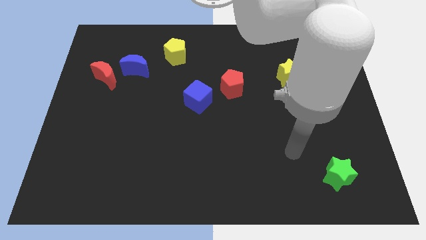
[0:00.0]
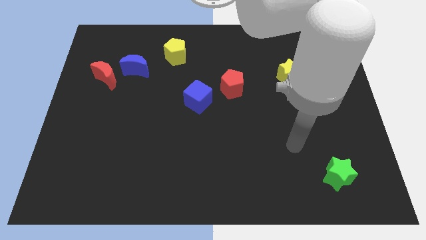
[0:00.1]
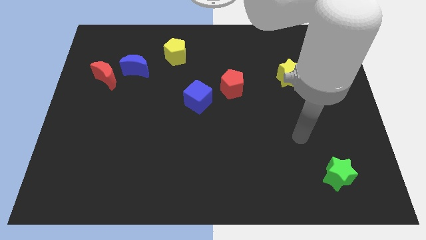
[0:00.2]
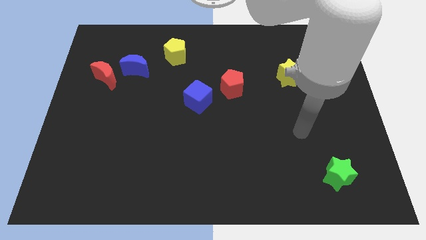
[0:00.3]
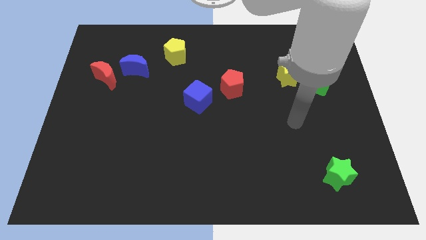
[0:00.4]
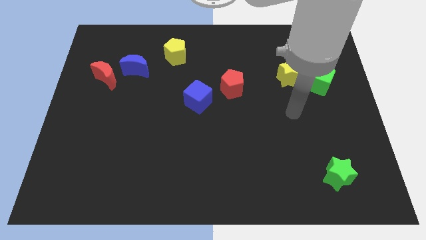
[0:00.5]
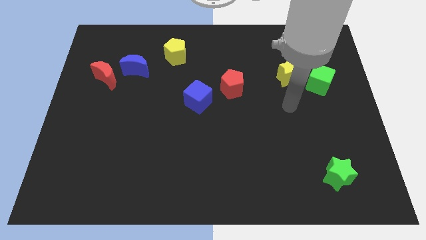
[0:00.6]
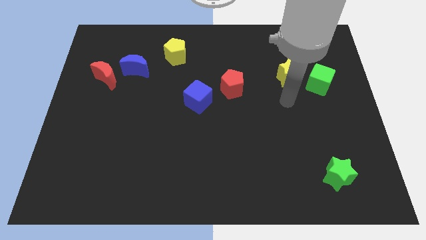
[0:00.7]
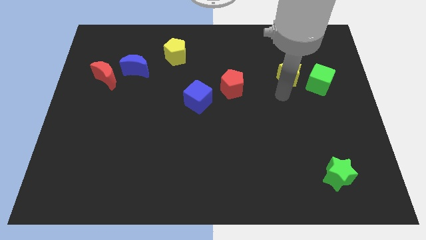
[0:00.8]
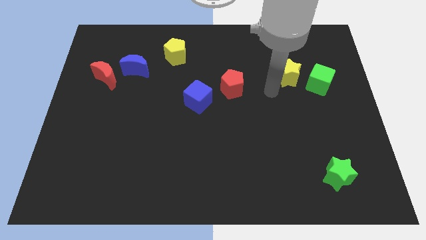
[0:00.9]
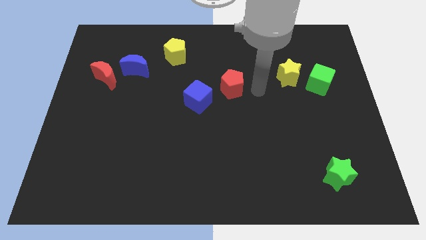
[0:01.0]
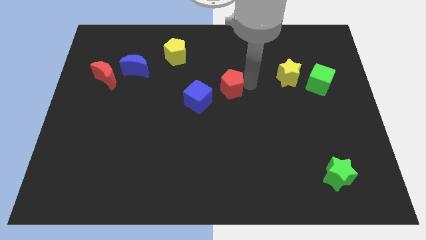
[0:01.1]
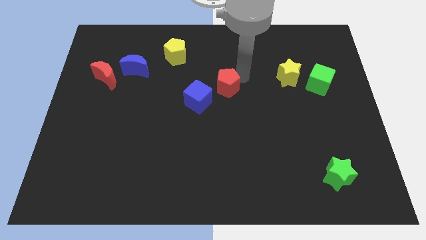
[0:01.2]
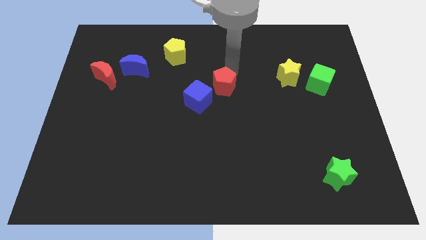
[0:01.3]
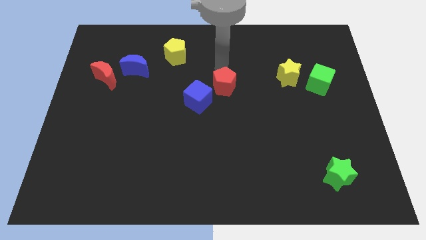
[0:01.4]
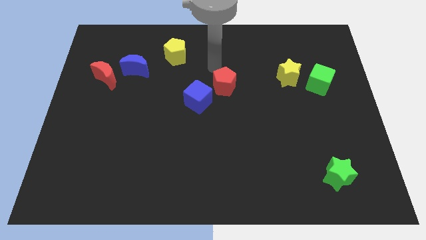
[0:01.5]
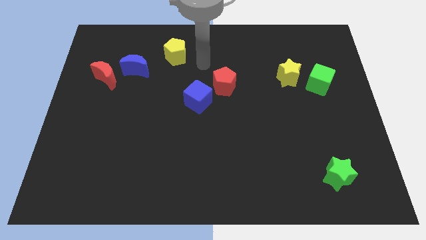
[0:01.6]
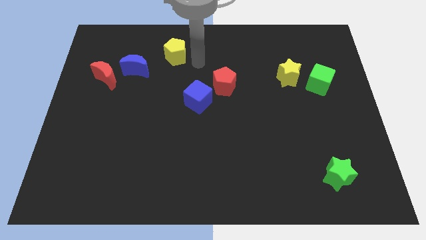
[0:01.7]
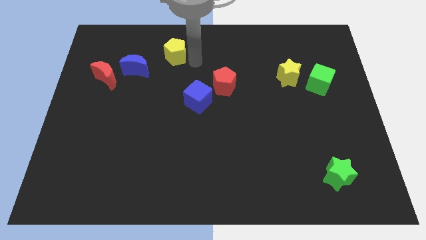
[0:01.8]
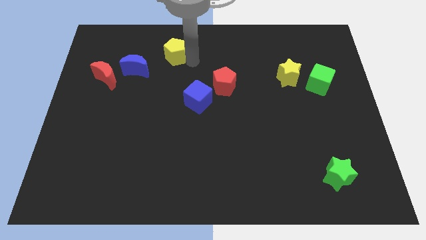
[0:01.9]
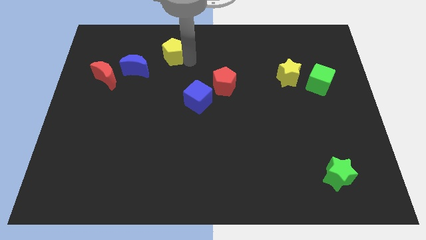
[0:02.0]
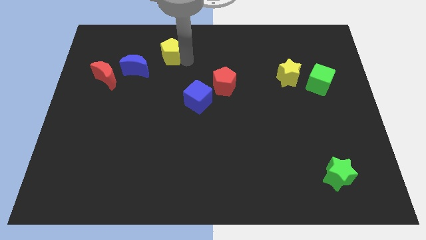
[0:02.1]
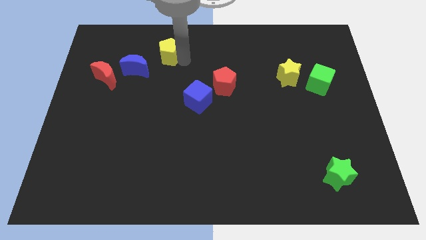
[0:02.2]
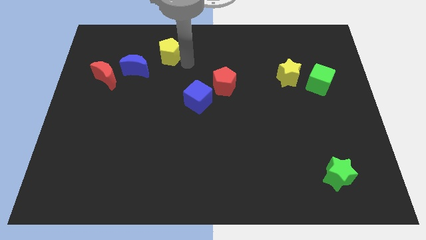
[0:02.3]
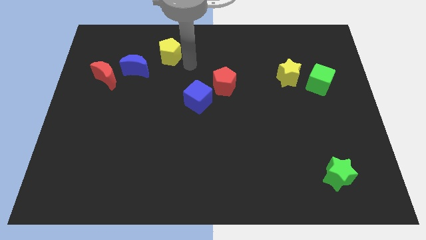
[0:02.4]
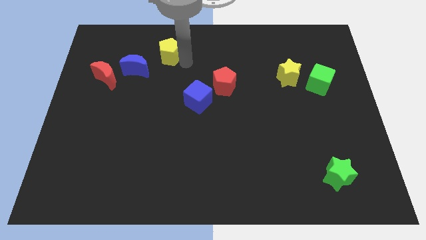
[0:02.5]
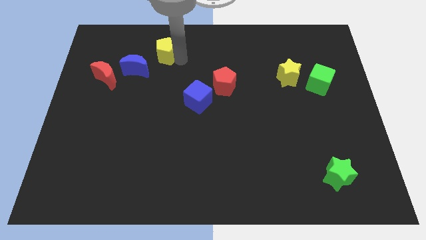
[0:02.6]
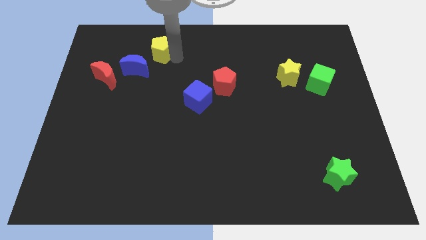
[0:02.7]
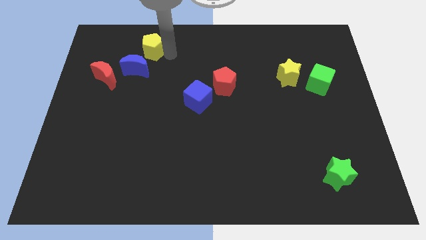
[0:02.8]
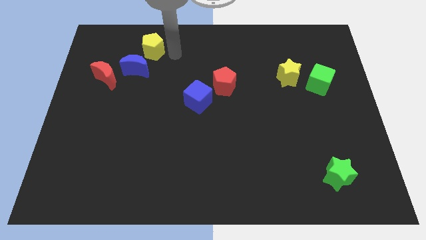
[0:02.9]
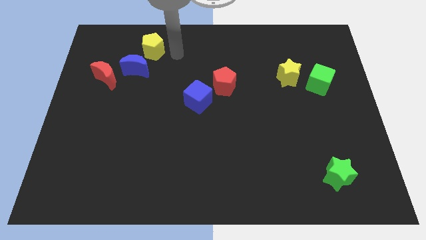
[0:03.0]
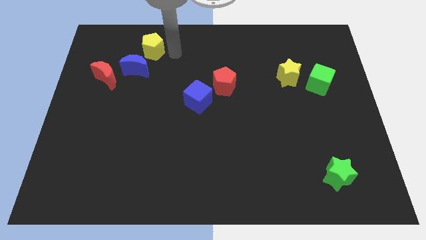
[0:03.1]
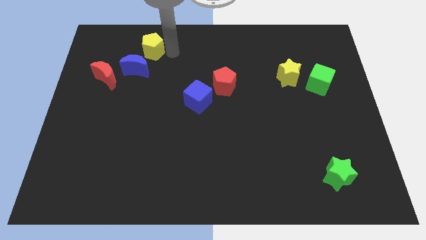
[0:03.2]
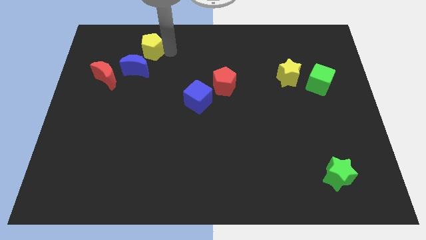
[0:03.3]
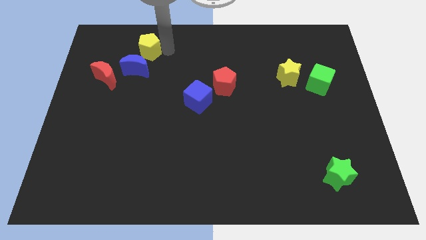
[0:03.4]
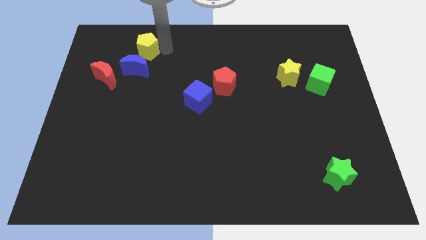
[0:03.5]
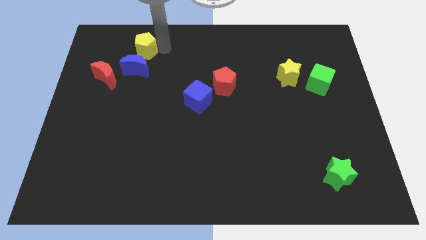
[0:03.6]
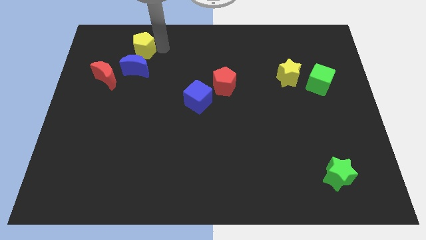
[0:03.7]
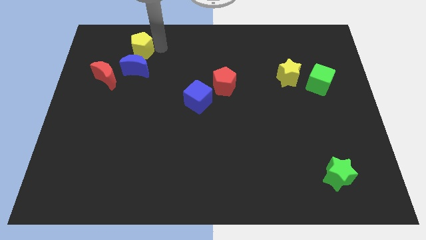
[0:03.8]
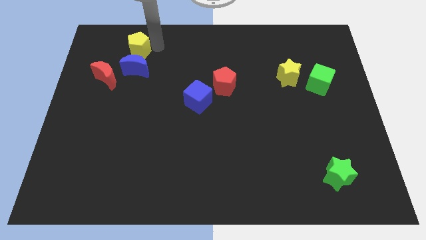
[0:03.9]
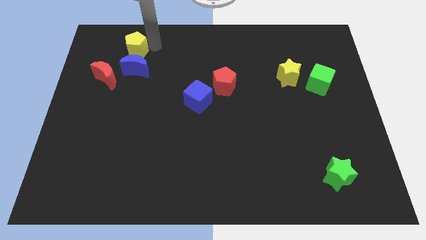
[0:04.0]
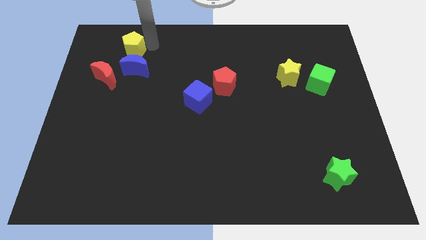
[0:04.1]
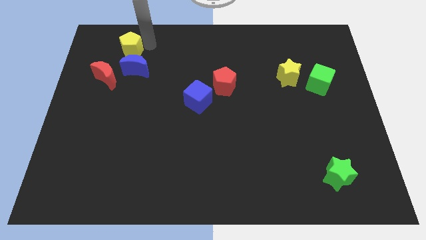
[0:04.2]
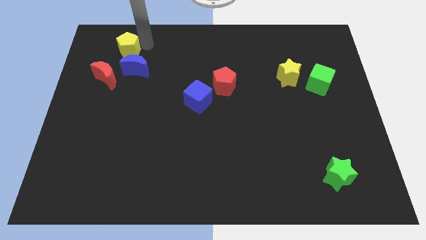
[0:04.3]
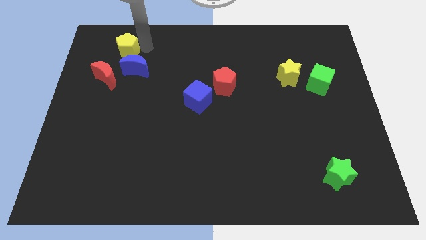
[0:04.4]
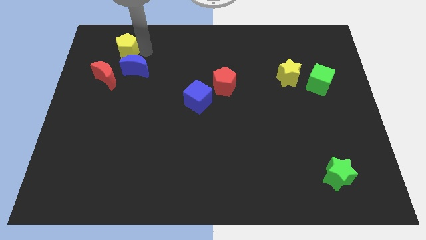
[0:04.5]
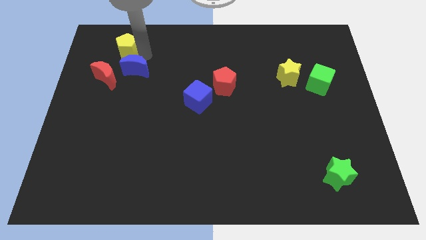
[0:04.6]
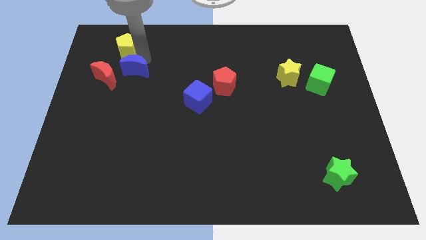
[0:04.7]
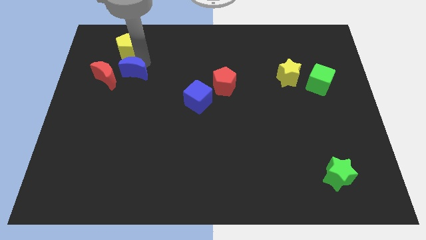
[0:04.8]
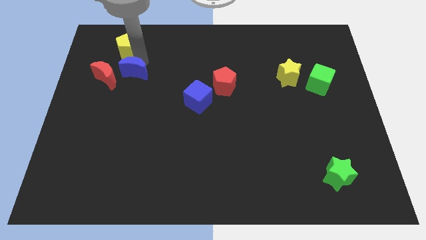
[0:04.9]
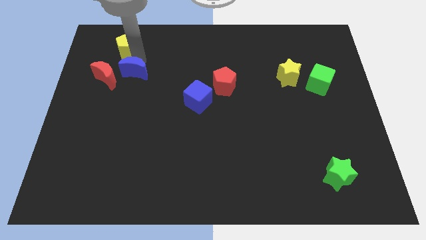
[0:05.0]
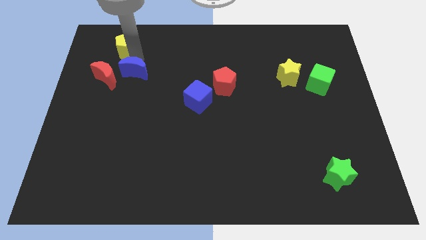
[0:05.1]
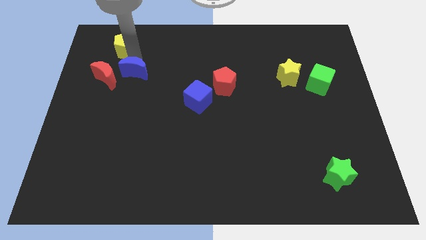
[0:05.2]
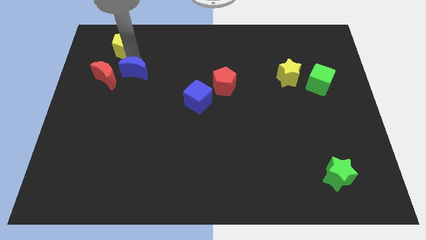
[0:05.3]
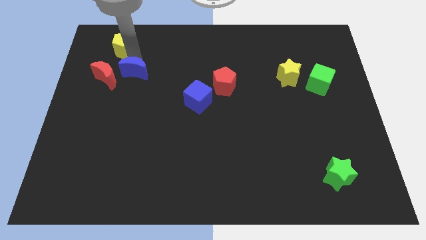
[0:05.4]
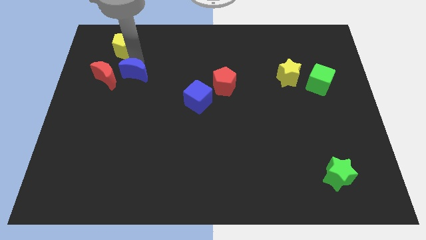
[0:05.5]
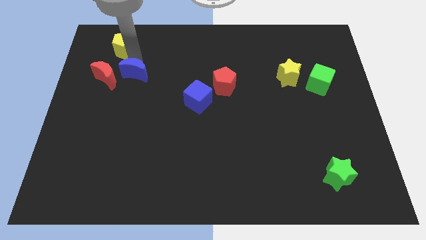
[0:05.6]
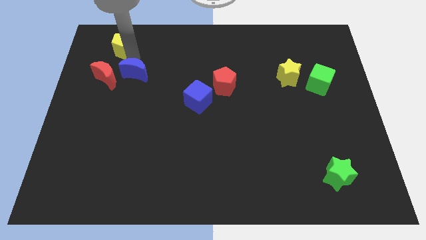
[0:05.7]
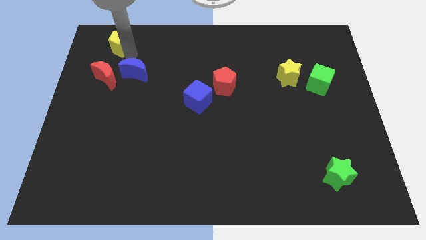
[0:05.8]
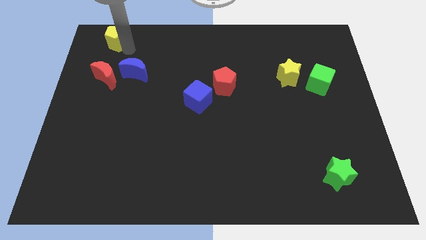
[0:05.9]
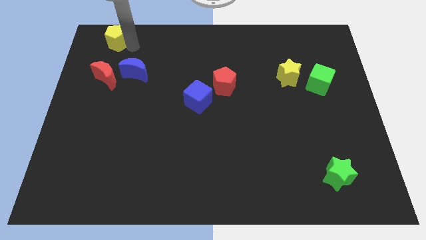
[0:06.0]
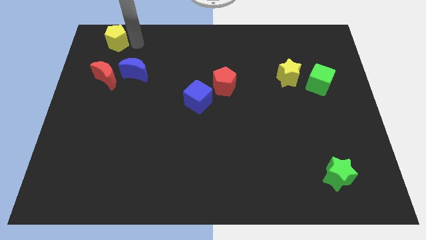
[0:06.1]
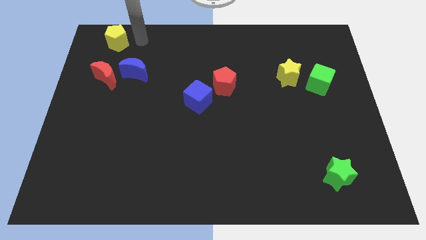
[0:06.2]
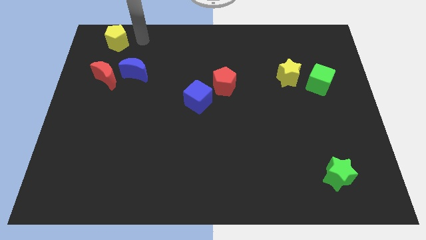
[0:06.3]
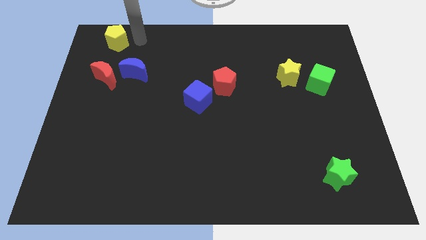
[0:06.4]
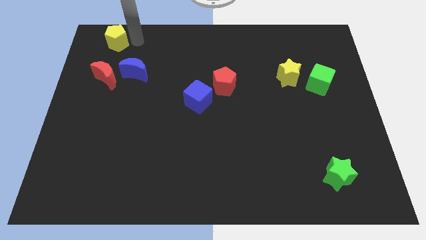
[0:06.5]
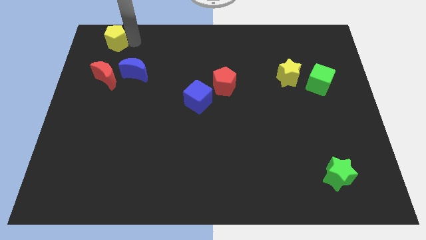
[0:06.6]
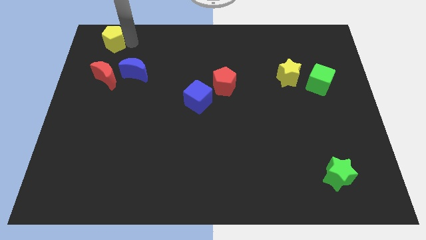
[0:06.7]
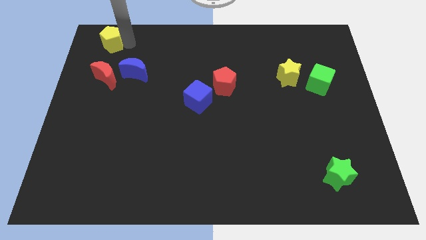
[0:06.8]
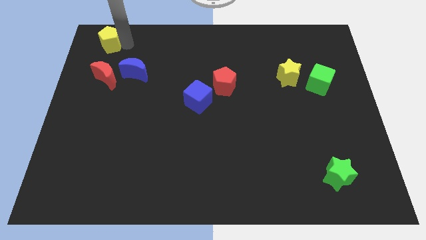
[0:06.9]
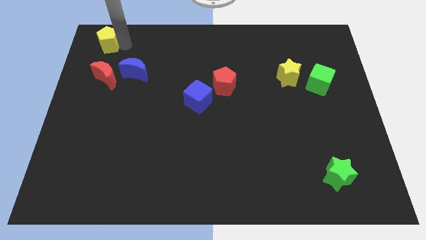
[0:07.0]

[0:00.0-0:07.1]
slide the yellow pentagon to the top left
